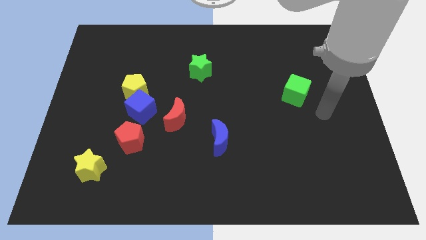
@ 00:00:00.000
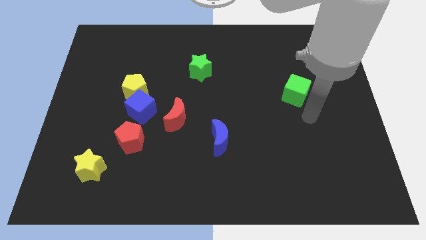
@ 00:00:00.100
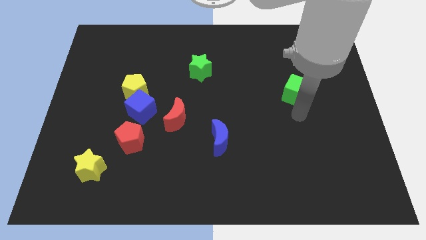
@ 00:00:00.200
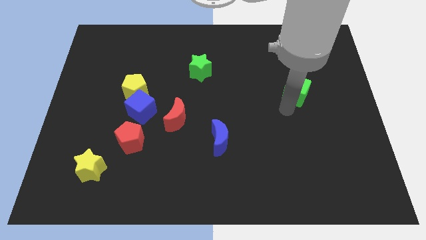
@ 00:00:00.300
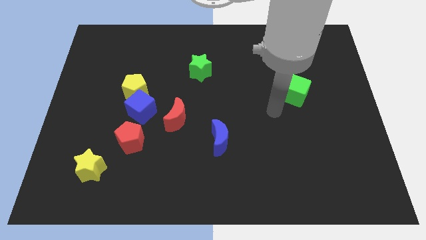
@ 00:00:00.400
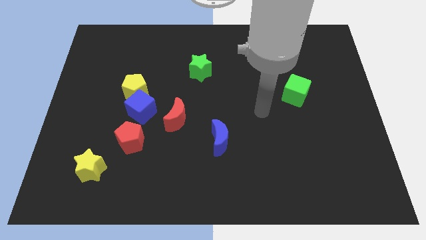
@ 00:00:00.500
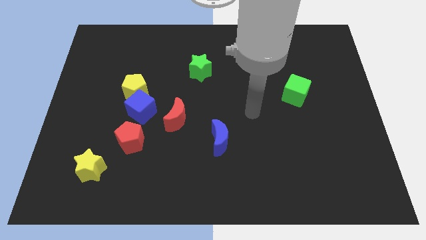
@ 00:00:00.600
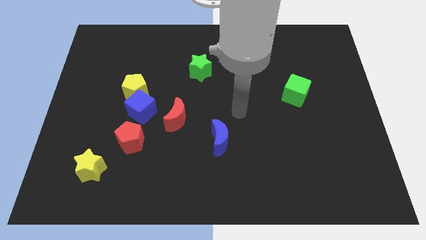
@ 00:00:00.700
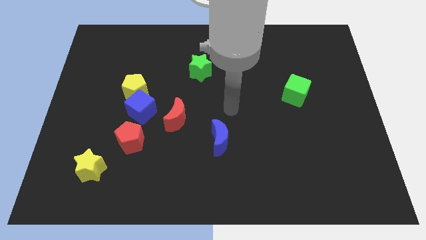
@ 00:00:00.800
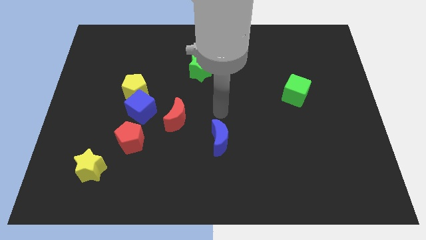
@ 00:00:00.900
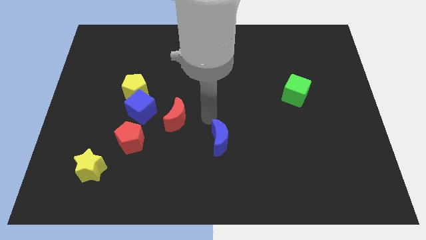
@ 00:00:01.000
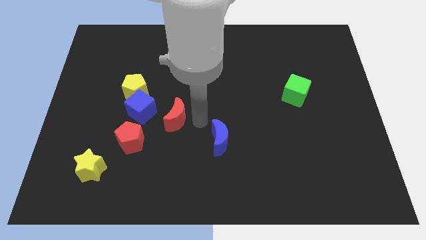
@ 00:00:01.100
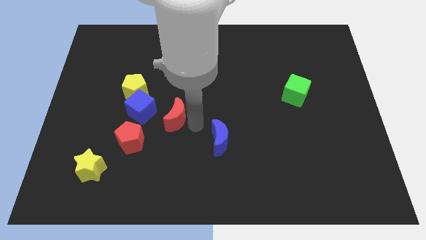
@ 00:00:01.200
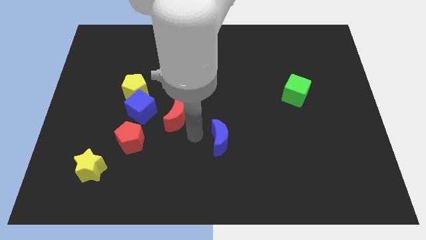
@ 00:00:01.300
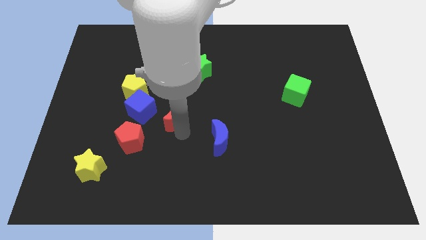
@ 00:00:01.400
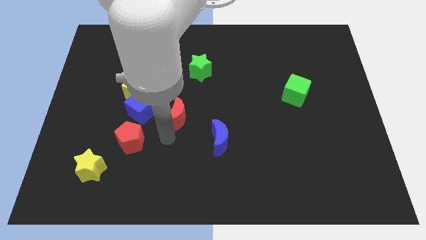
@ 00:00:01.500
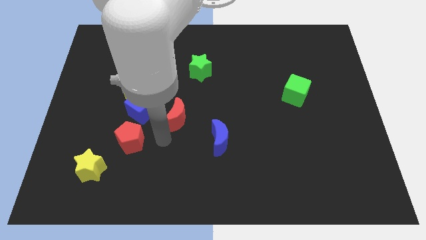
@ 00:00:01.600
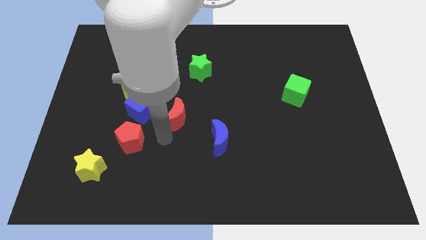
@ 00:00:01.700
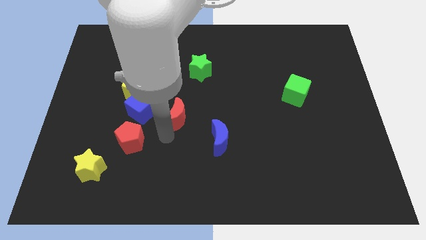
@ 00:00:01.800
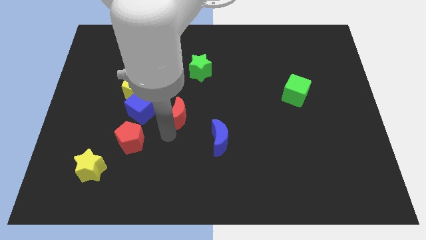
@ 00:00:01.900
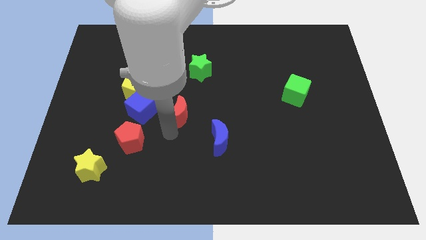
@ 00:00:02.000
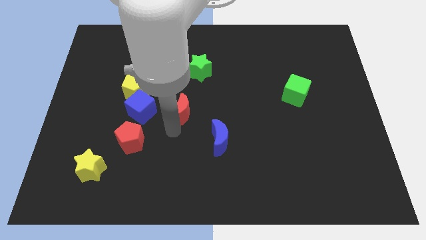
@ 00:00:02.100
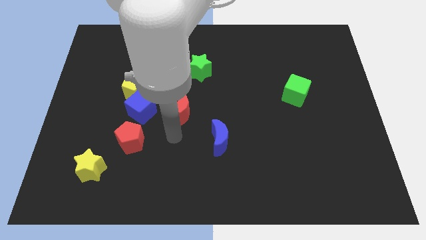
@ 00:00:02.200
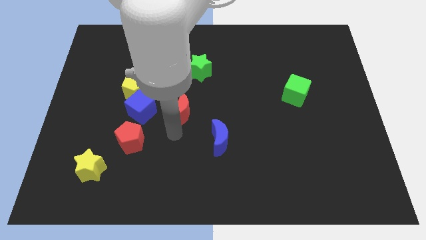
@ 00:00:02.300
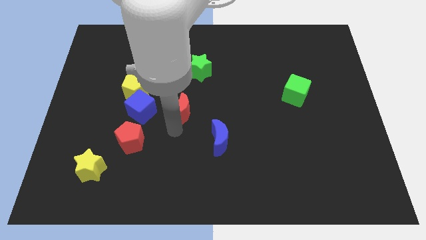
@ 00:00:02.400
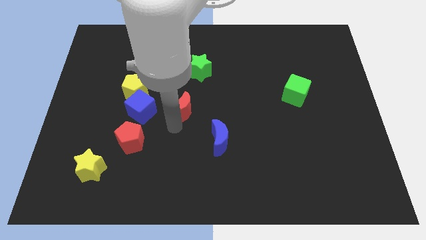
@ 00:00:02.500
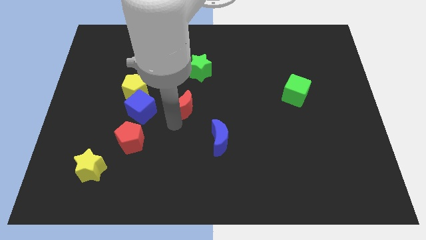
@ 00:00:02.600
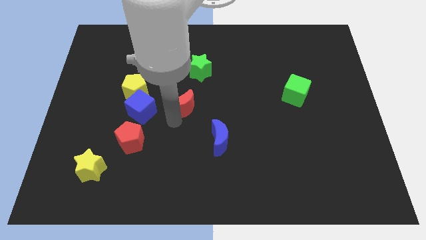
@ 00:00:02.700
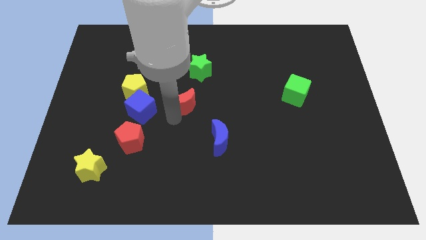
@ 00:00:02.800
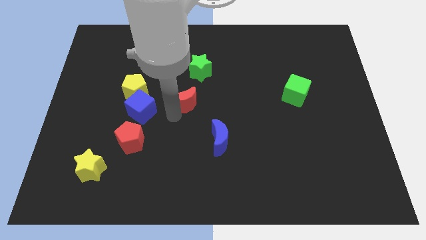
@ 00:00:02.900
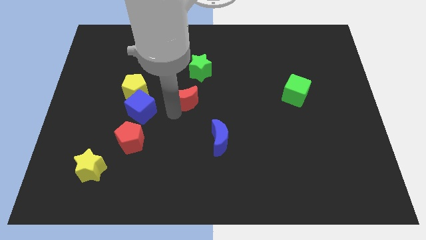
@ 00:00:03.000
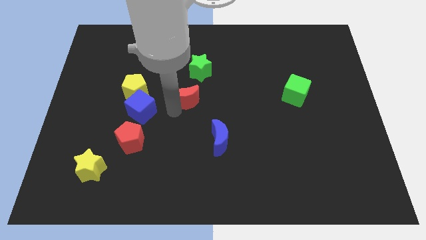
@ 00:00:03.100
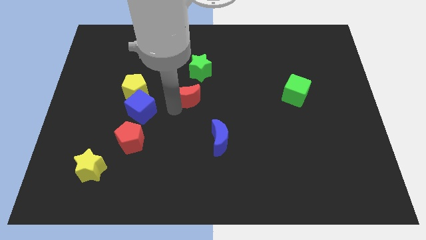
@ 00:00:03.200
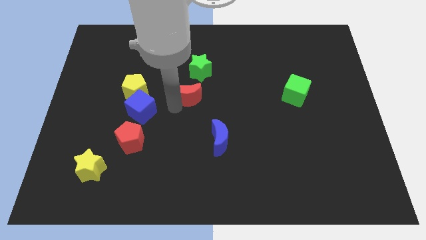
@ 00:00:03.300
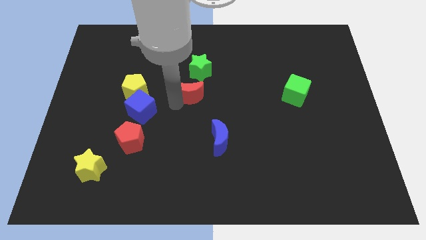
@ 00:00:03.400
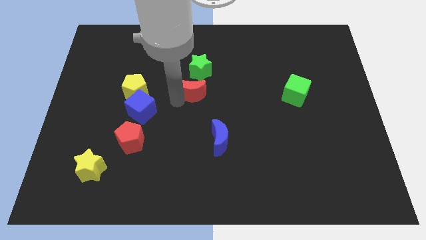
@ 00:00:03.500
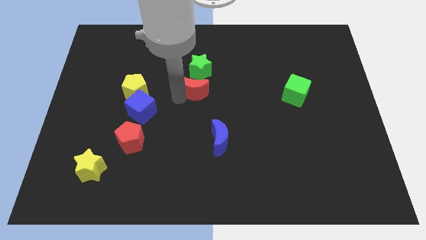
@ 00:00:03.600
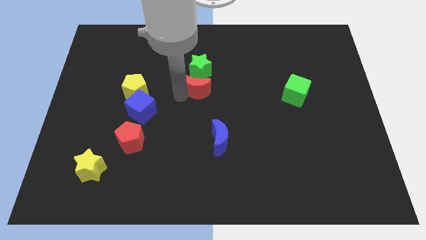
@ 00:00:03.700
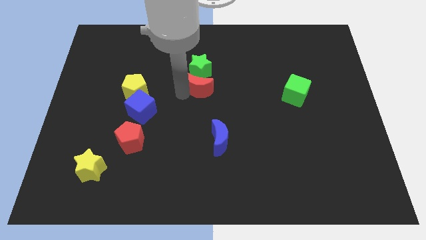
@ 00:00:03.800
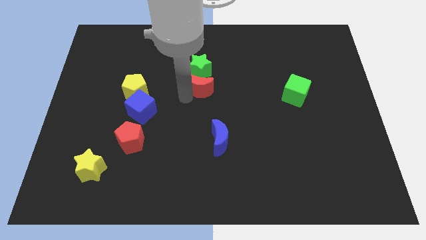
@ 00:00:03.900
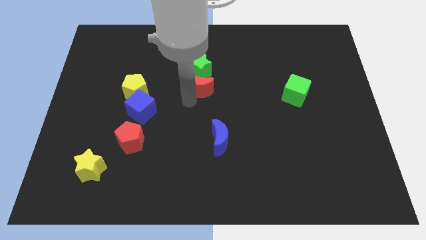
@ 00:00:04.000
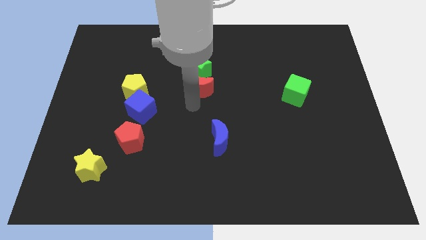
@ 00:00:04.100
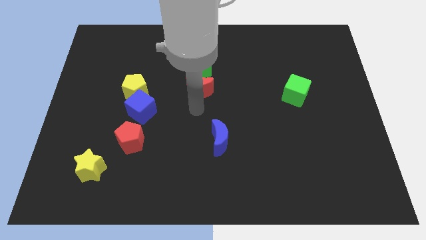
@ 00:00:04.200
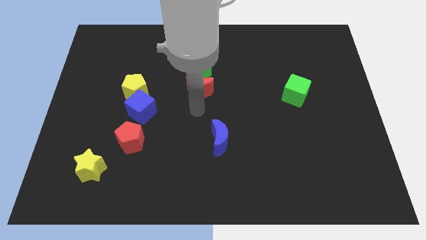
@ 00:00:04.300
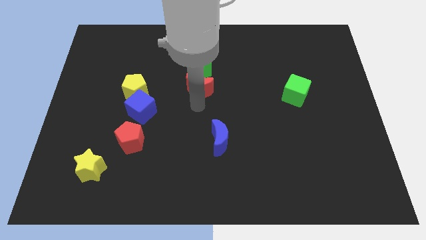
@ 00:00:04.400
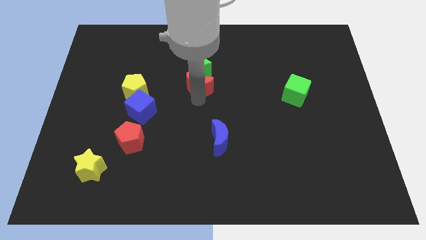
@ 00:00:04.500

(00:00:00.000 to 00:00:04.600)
put the red moon towards the green star

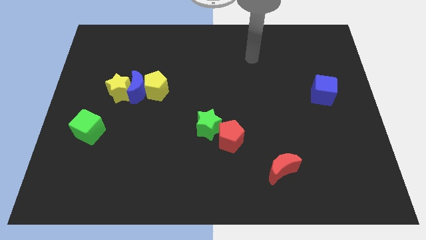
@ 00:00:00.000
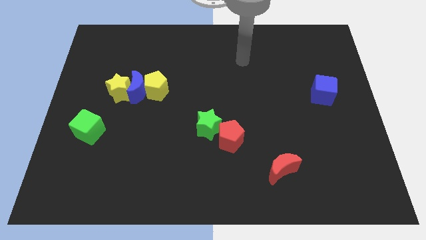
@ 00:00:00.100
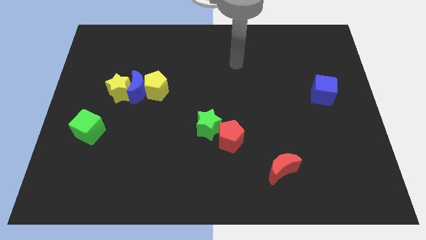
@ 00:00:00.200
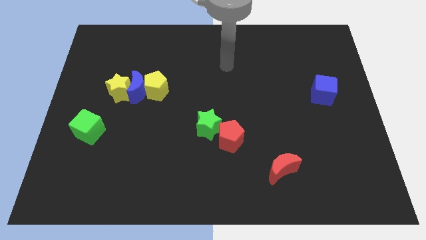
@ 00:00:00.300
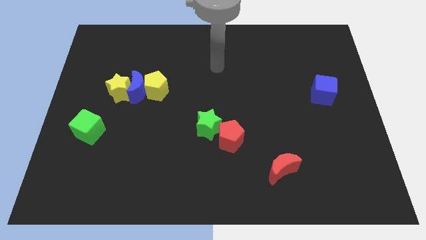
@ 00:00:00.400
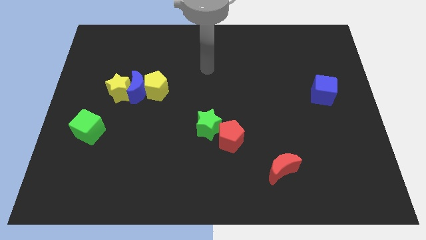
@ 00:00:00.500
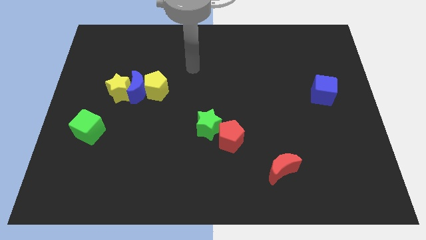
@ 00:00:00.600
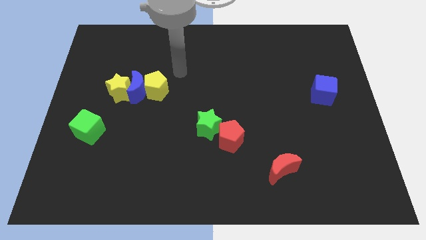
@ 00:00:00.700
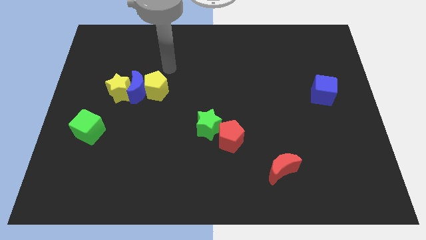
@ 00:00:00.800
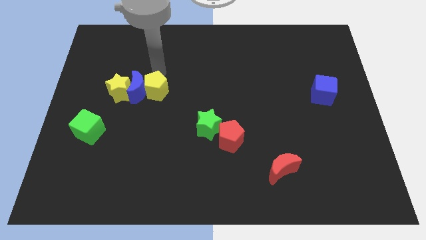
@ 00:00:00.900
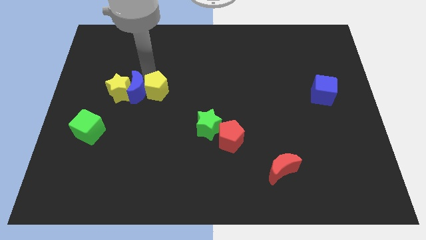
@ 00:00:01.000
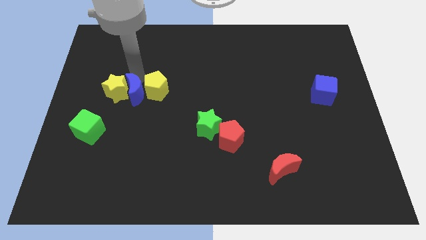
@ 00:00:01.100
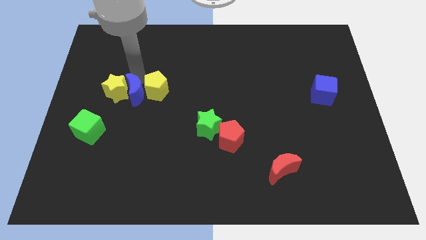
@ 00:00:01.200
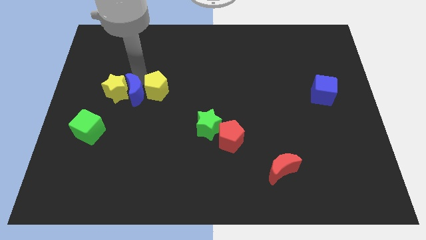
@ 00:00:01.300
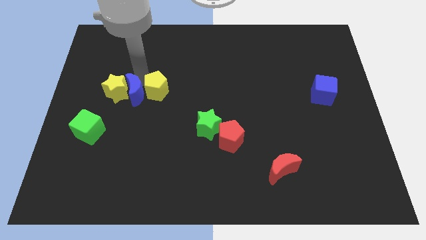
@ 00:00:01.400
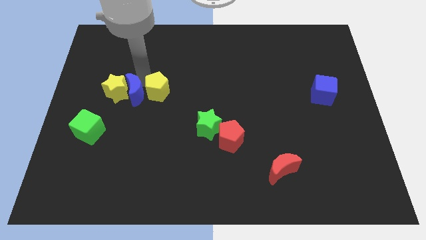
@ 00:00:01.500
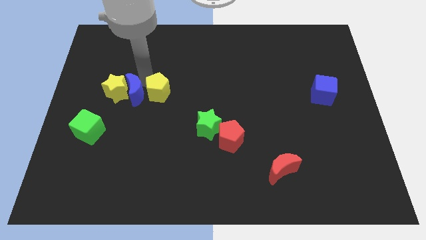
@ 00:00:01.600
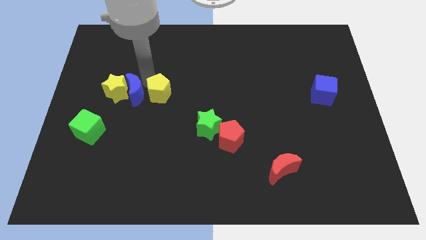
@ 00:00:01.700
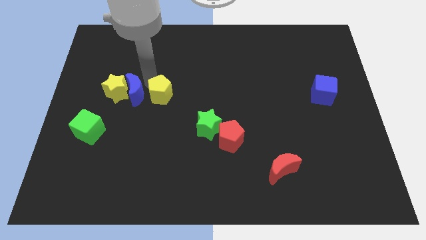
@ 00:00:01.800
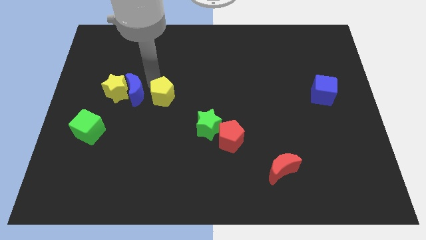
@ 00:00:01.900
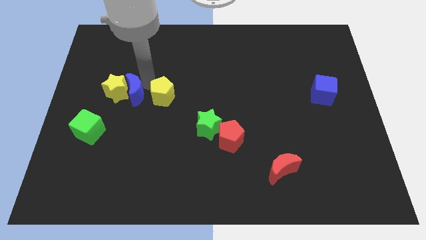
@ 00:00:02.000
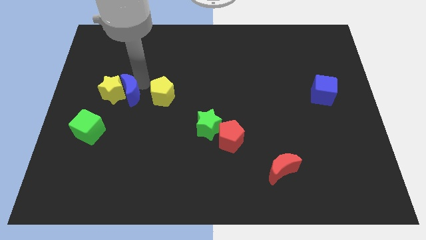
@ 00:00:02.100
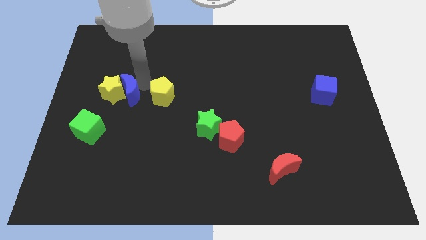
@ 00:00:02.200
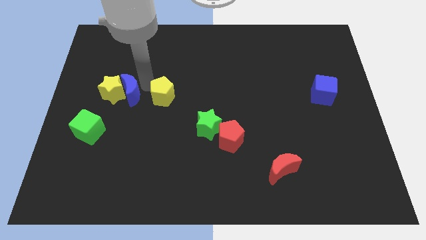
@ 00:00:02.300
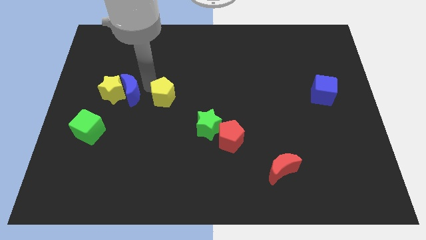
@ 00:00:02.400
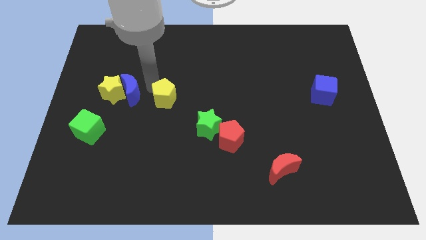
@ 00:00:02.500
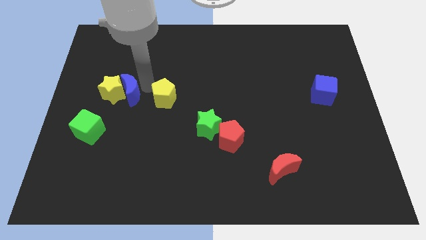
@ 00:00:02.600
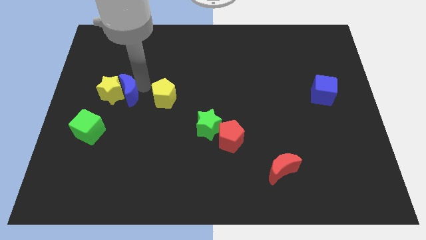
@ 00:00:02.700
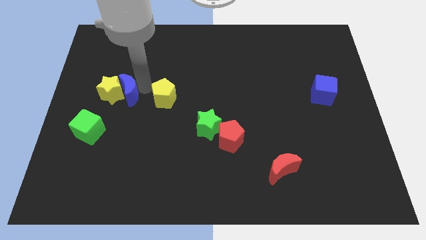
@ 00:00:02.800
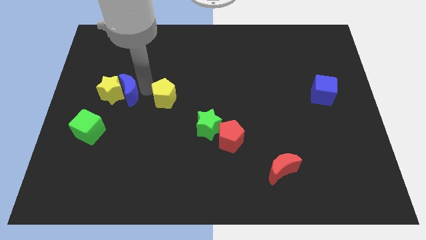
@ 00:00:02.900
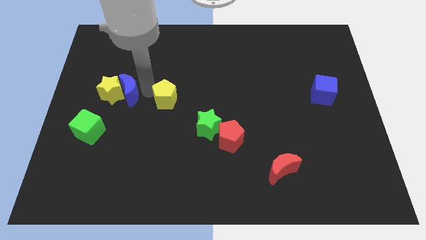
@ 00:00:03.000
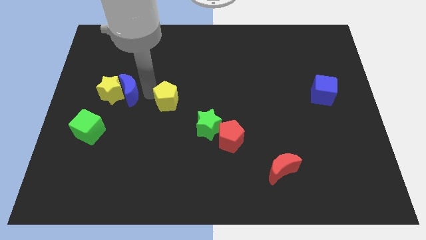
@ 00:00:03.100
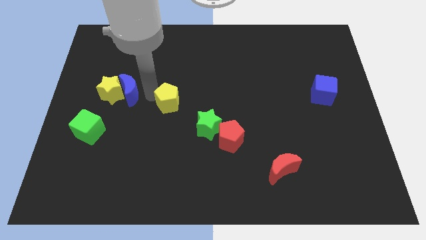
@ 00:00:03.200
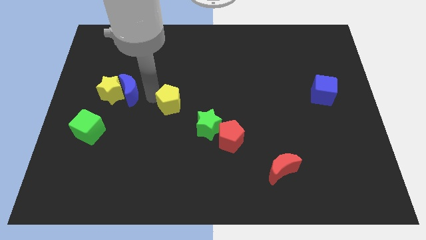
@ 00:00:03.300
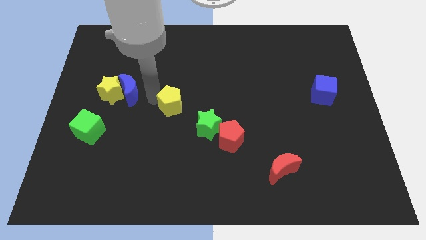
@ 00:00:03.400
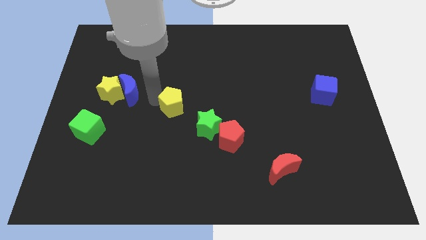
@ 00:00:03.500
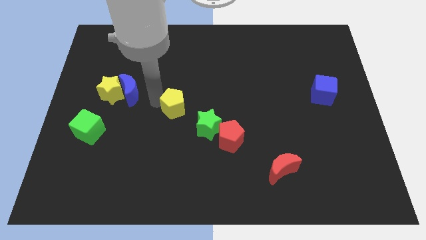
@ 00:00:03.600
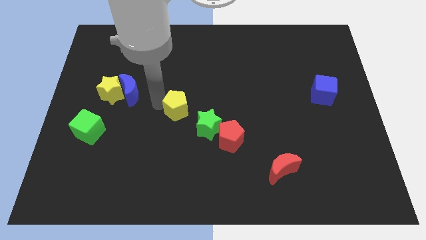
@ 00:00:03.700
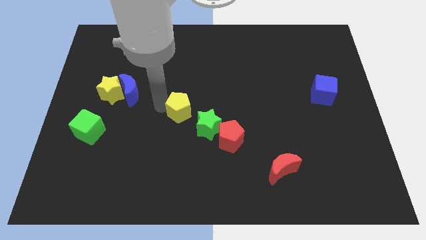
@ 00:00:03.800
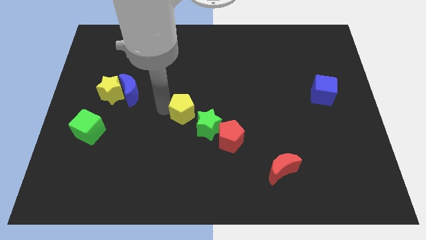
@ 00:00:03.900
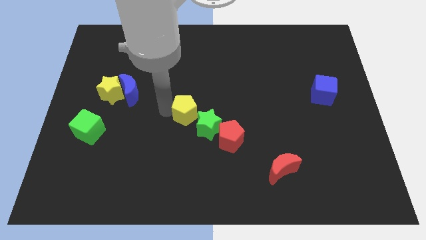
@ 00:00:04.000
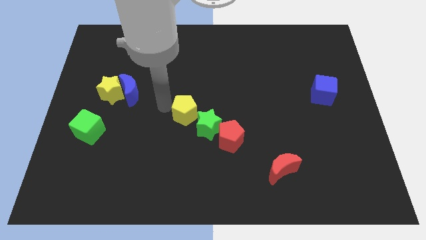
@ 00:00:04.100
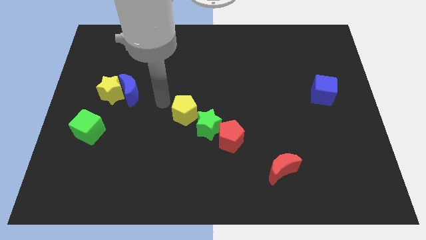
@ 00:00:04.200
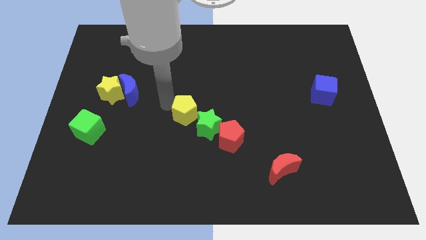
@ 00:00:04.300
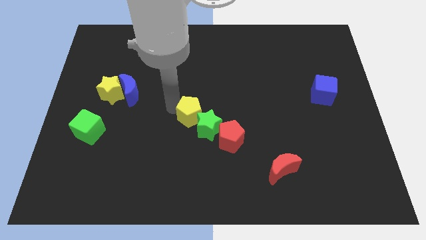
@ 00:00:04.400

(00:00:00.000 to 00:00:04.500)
move the yellow pentagon next to the green star
